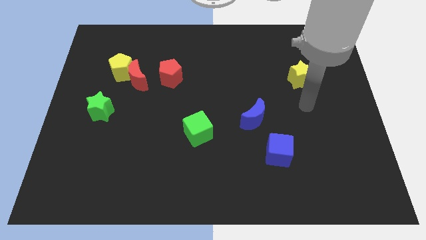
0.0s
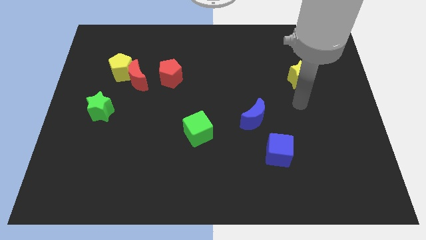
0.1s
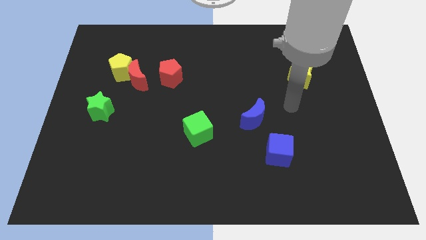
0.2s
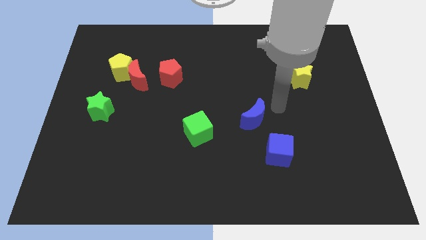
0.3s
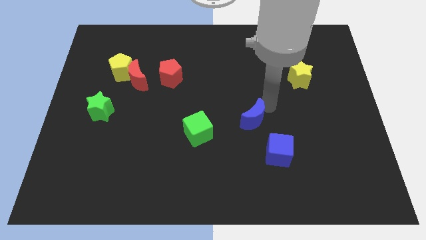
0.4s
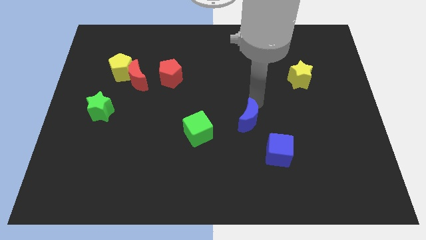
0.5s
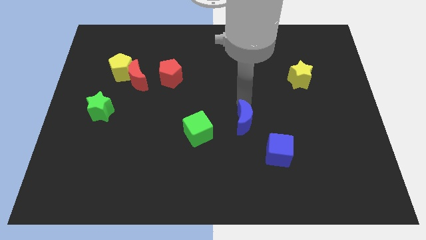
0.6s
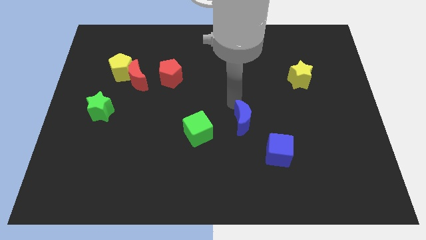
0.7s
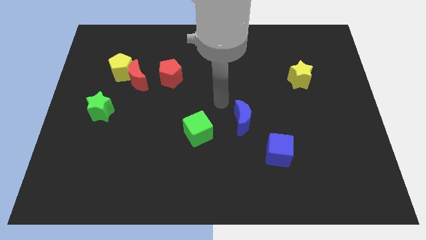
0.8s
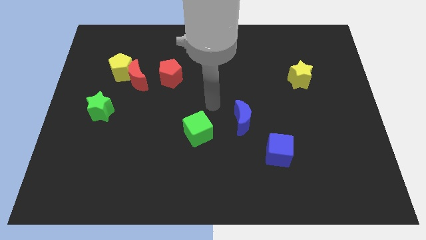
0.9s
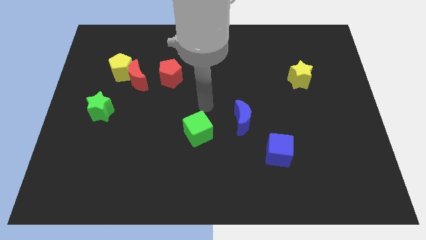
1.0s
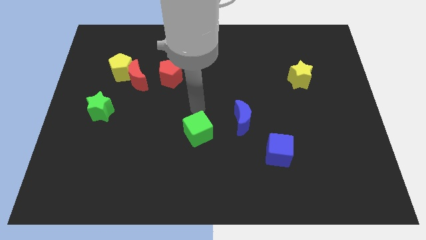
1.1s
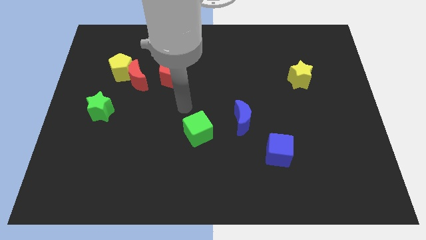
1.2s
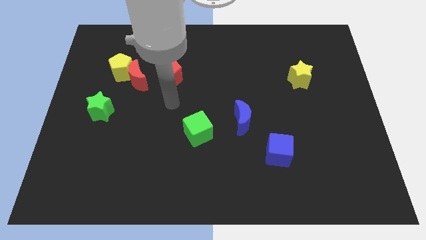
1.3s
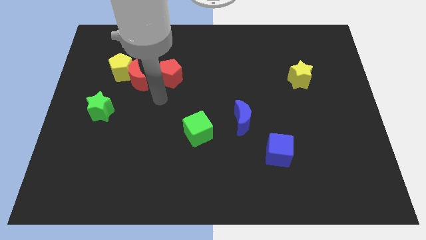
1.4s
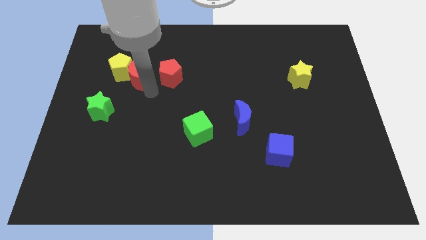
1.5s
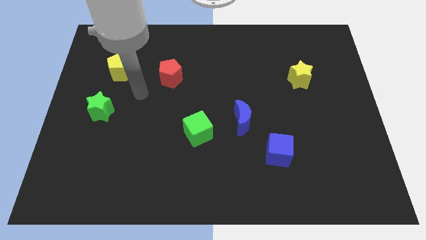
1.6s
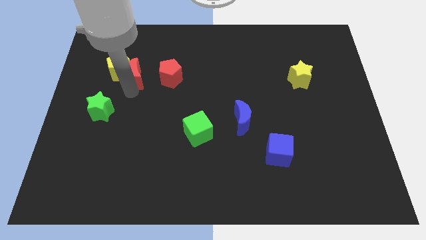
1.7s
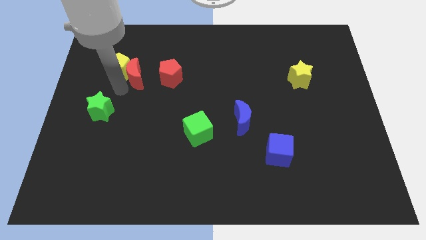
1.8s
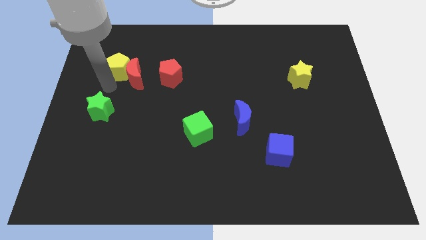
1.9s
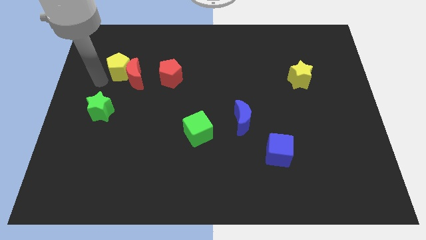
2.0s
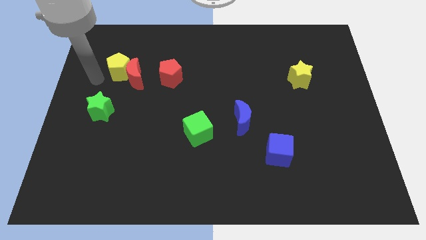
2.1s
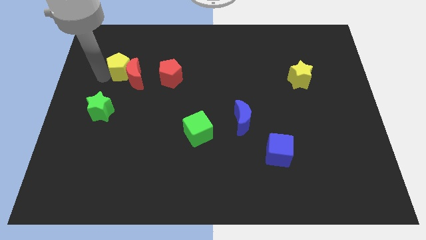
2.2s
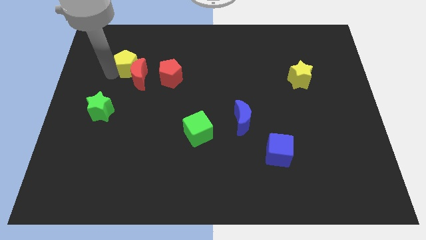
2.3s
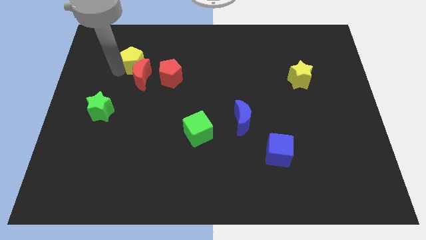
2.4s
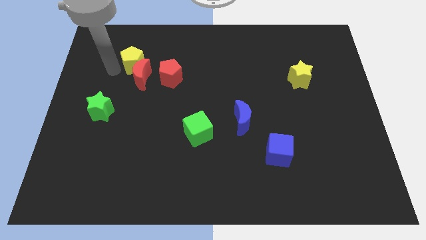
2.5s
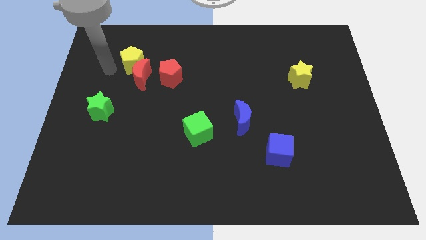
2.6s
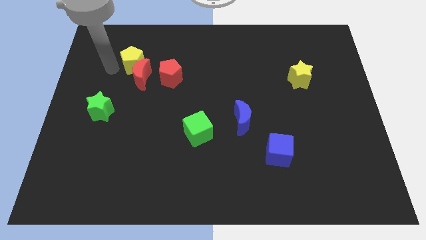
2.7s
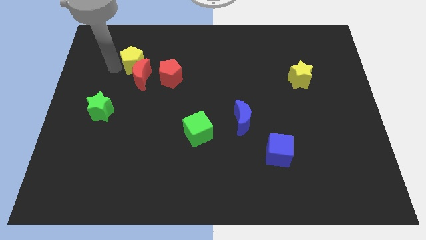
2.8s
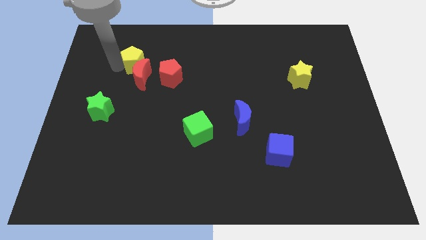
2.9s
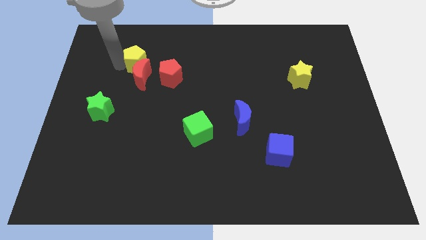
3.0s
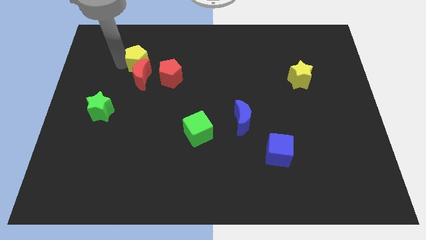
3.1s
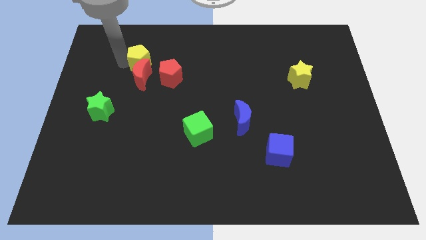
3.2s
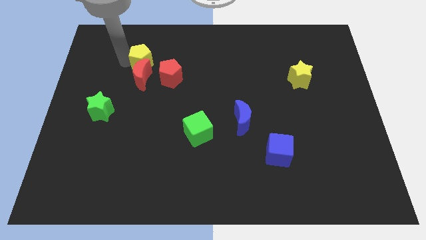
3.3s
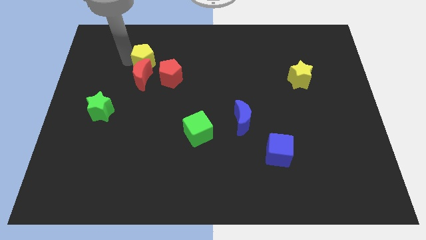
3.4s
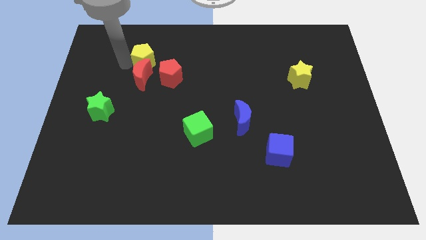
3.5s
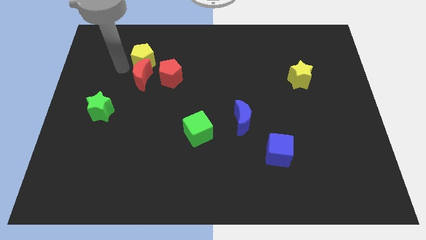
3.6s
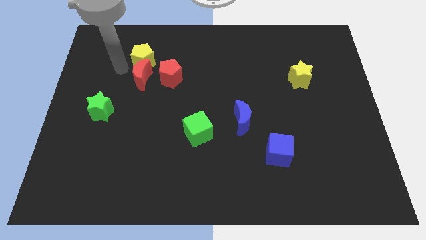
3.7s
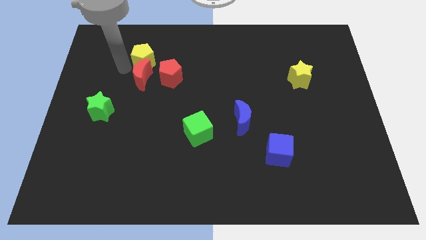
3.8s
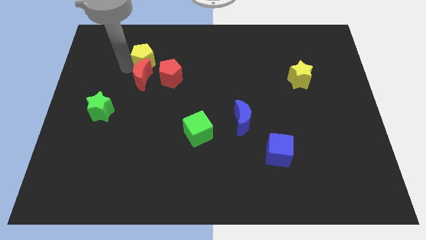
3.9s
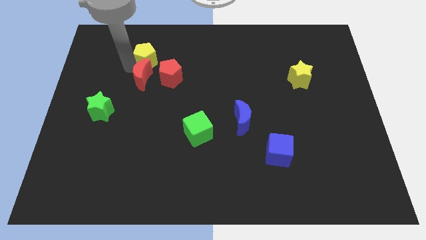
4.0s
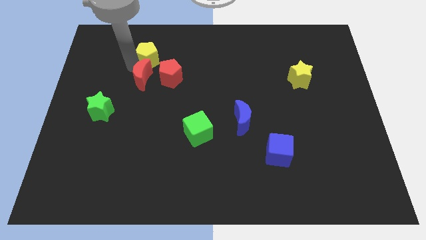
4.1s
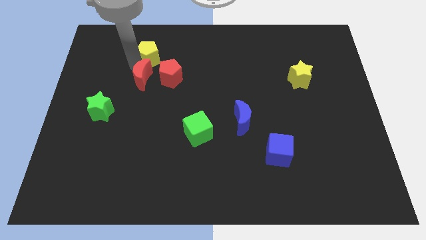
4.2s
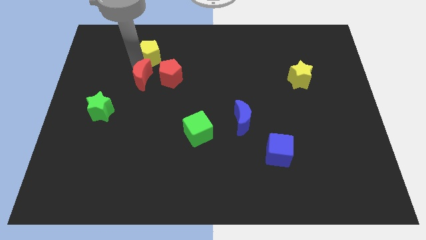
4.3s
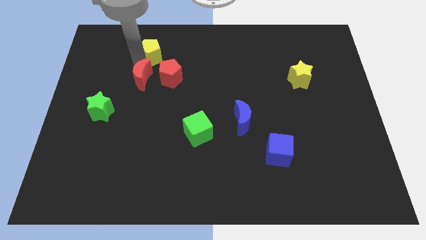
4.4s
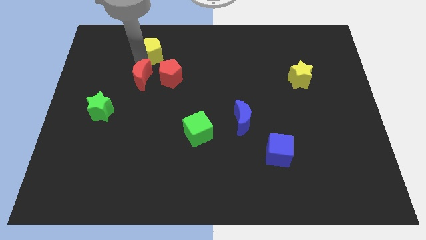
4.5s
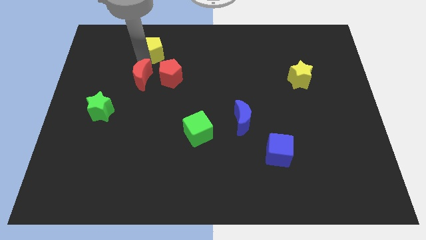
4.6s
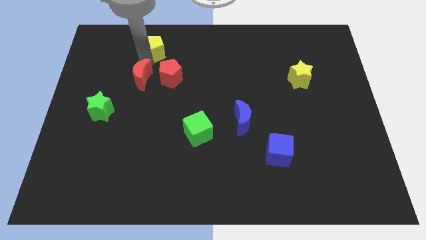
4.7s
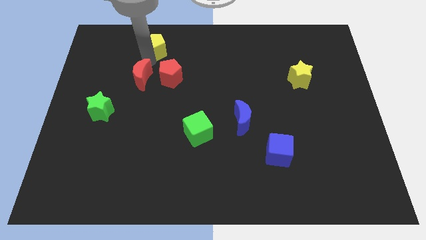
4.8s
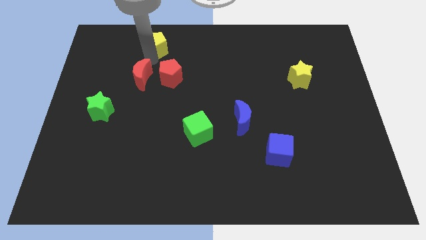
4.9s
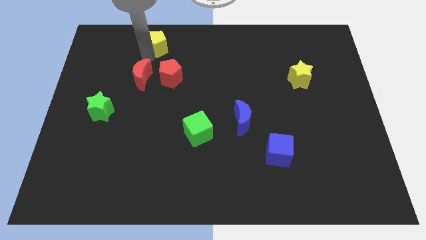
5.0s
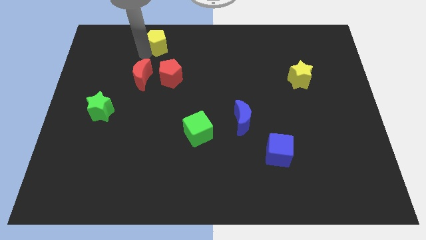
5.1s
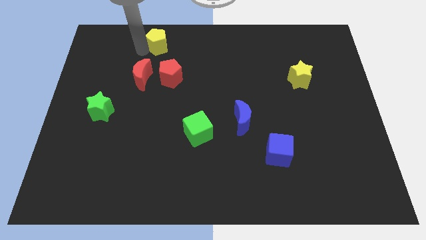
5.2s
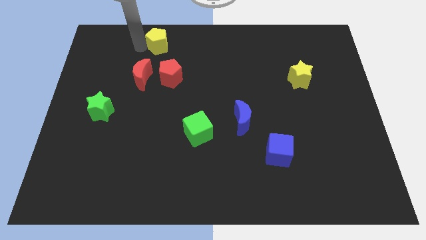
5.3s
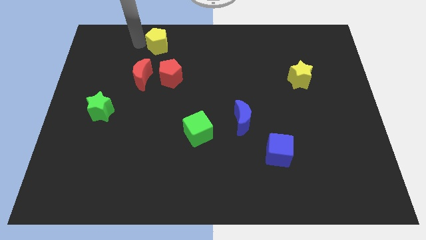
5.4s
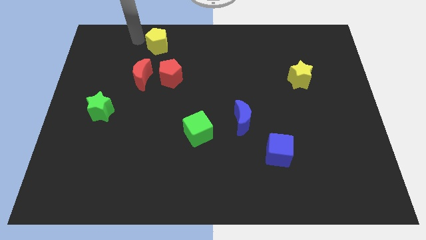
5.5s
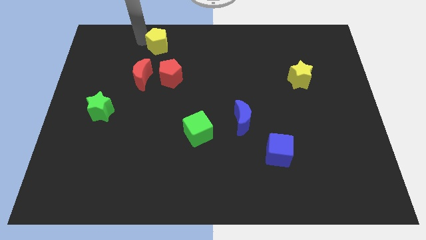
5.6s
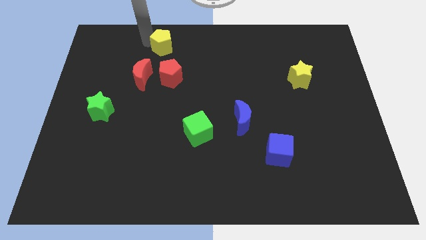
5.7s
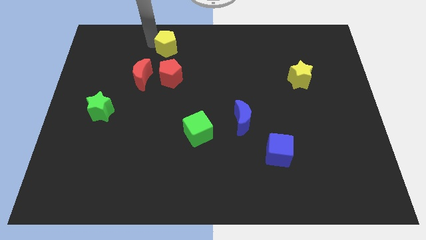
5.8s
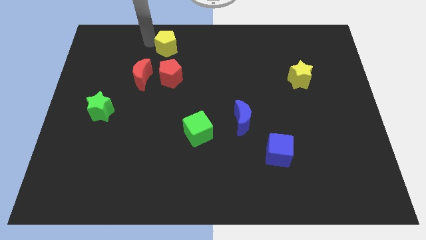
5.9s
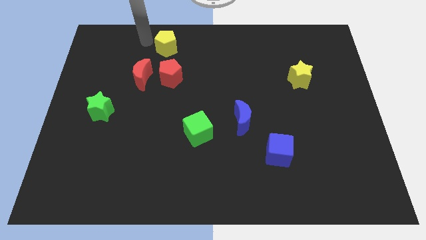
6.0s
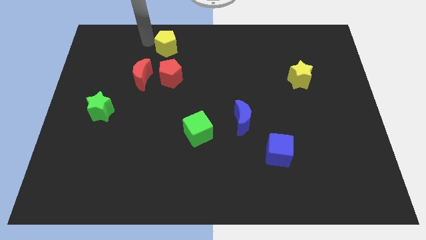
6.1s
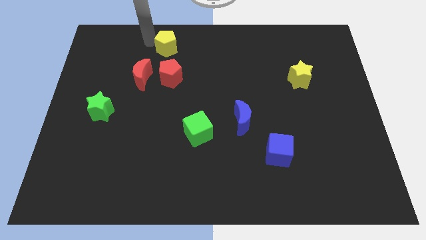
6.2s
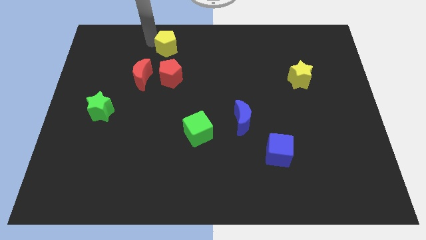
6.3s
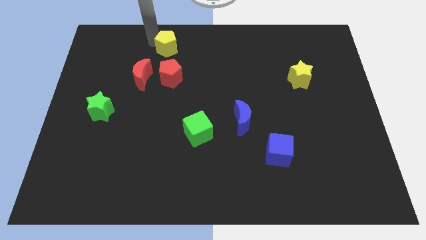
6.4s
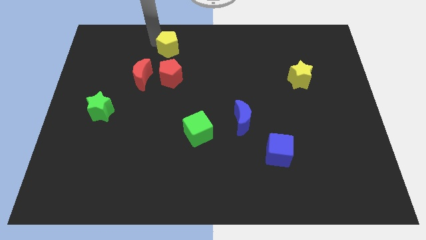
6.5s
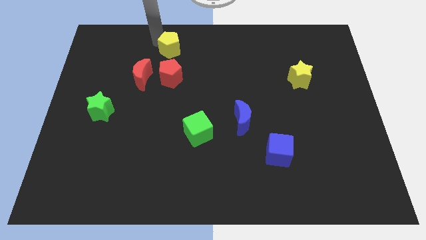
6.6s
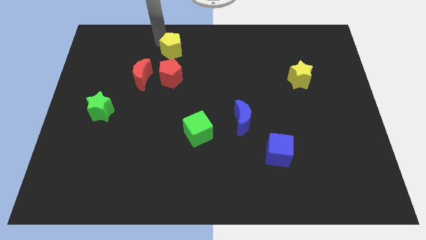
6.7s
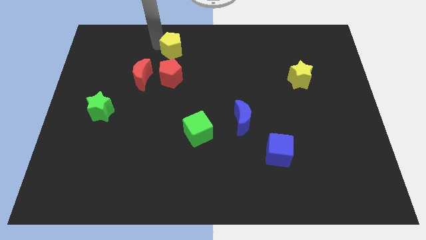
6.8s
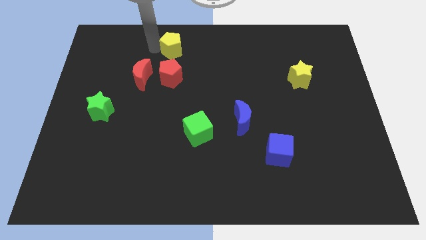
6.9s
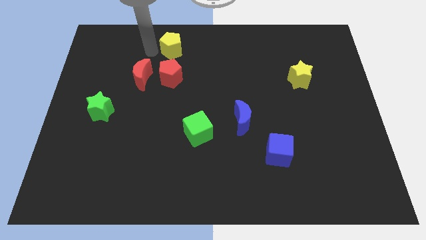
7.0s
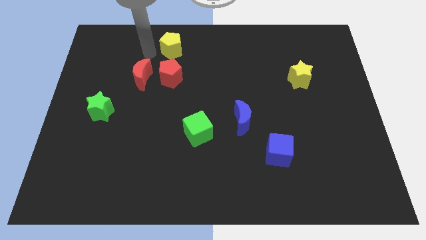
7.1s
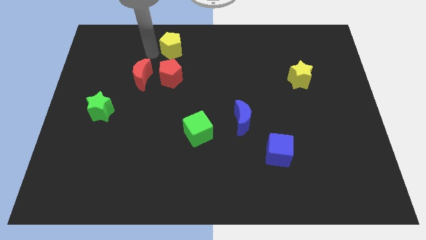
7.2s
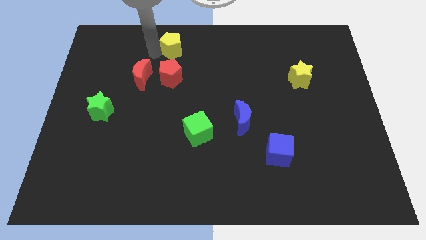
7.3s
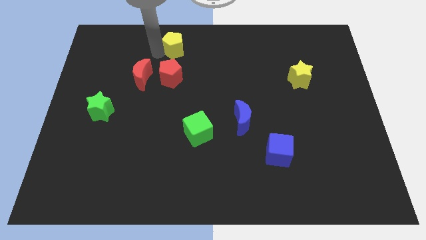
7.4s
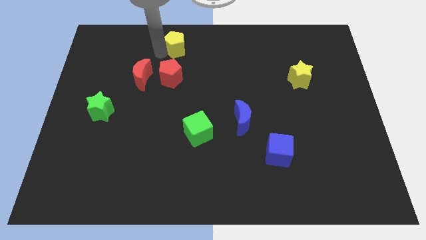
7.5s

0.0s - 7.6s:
slide the yellow pentagon to the top
